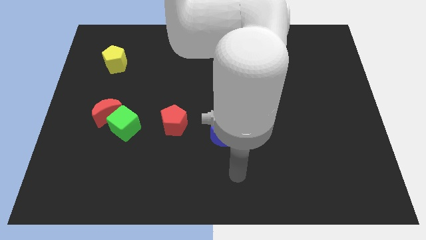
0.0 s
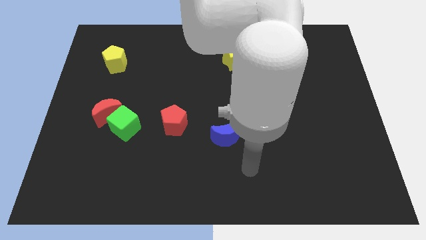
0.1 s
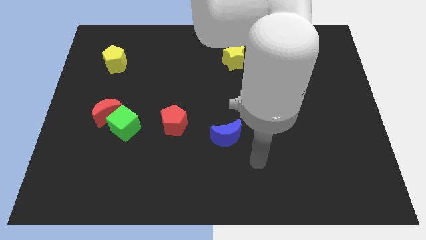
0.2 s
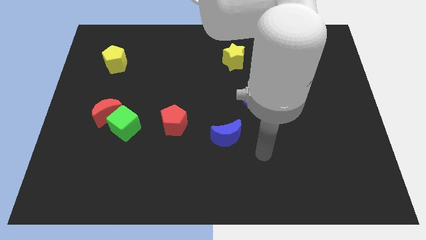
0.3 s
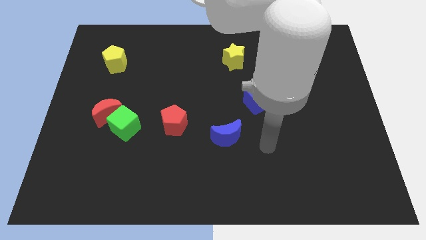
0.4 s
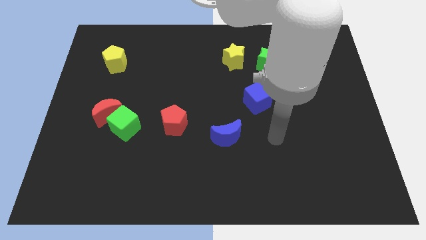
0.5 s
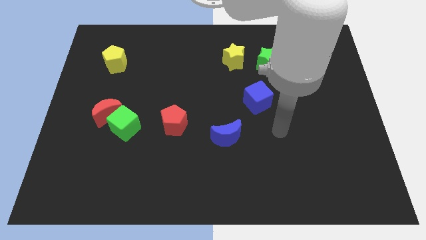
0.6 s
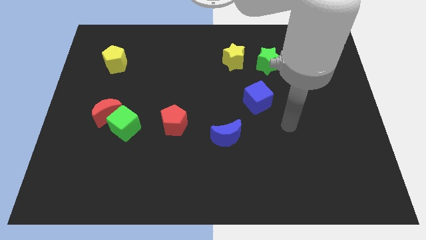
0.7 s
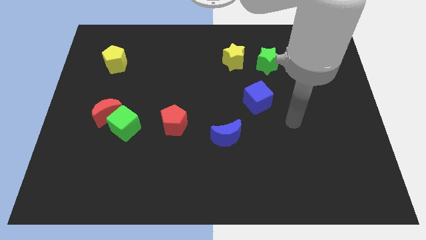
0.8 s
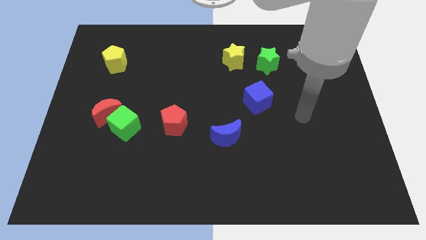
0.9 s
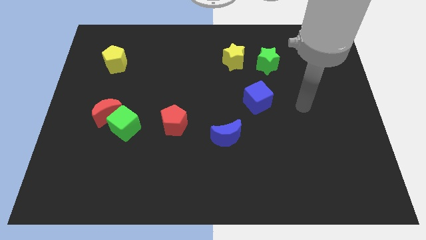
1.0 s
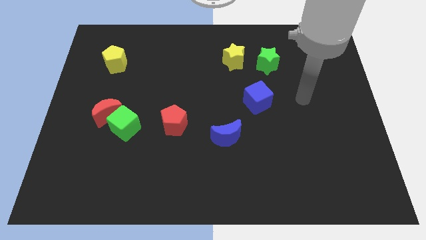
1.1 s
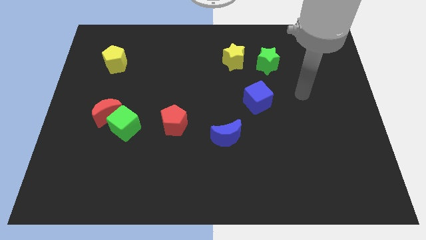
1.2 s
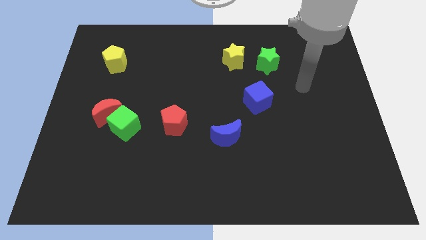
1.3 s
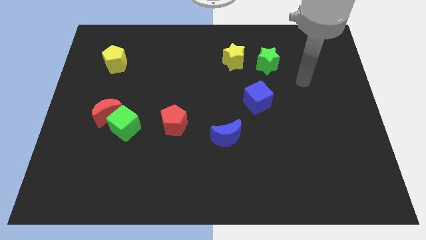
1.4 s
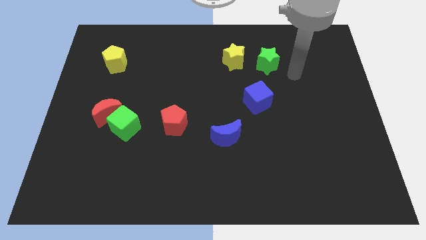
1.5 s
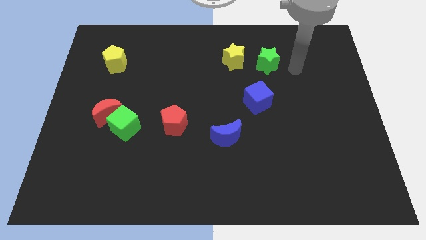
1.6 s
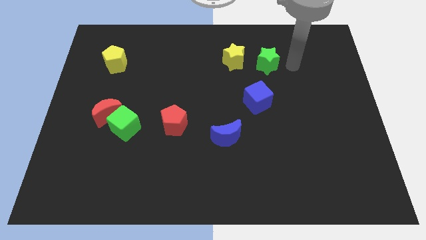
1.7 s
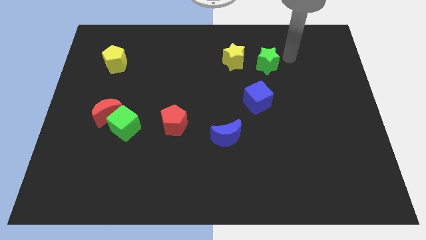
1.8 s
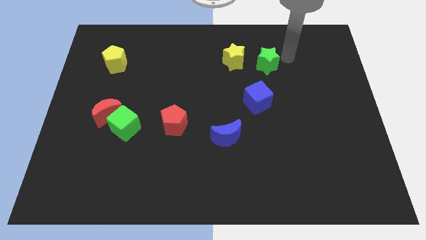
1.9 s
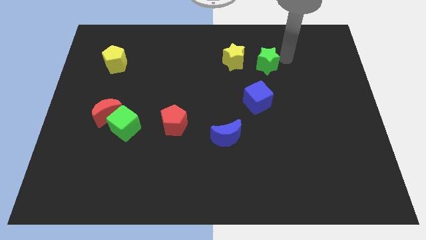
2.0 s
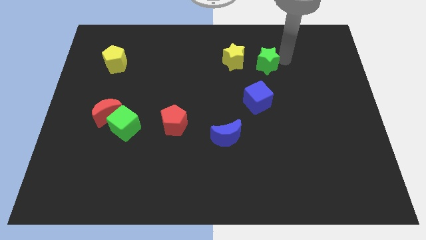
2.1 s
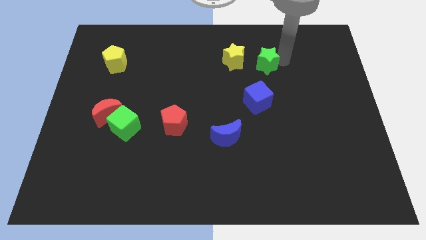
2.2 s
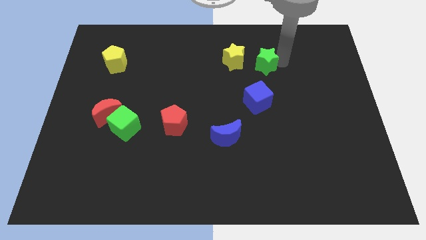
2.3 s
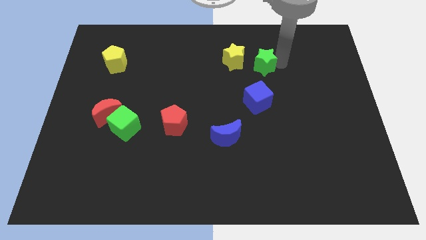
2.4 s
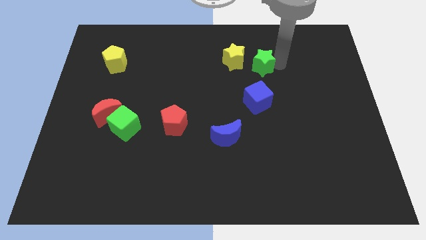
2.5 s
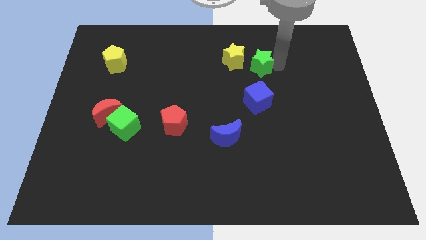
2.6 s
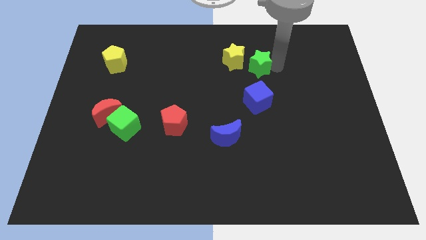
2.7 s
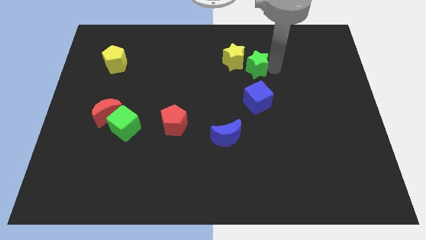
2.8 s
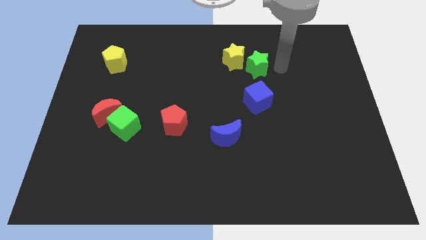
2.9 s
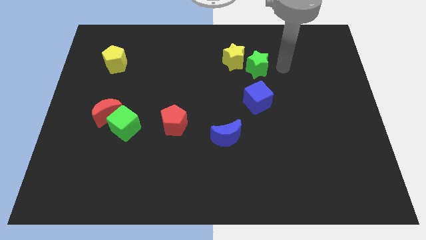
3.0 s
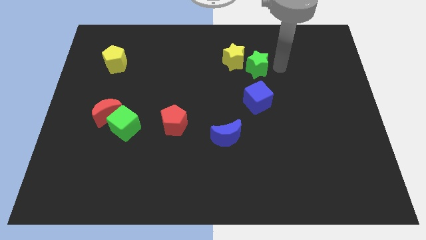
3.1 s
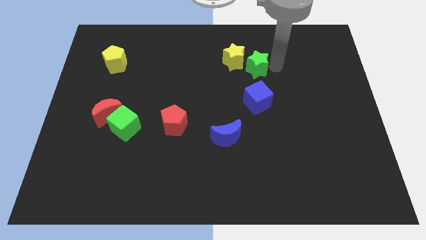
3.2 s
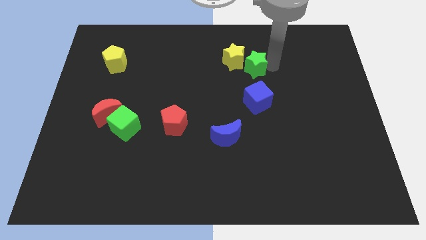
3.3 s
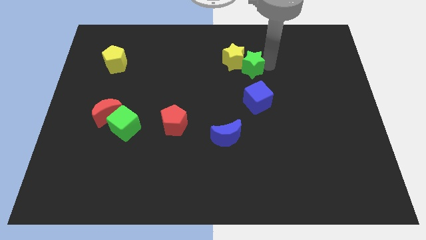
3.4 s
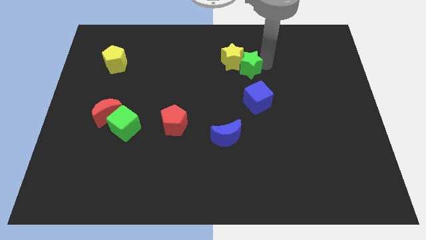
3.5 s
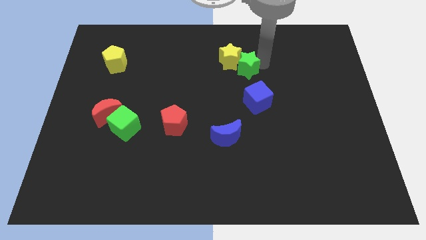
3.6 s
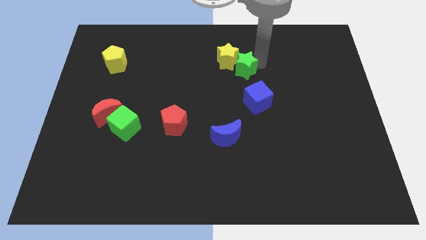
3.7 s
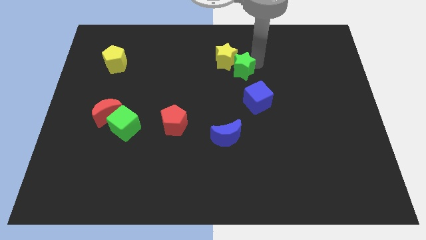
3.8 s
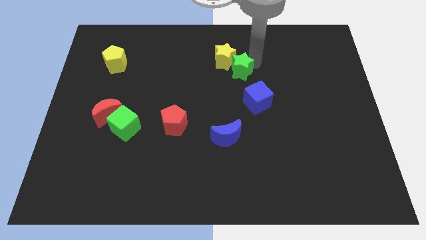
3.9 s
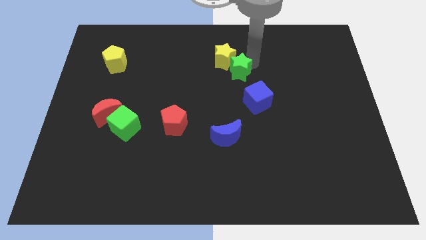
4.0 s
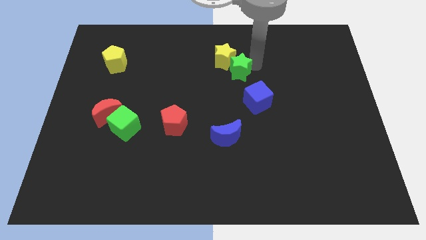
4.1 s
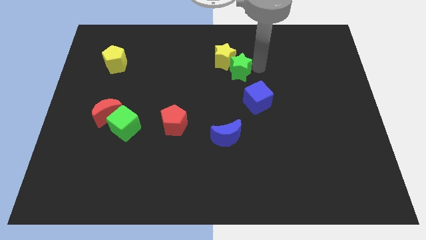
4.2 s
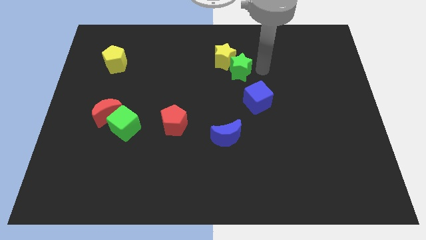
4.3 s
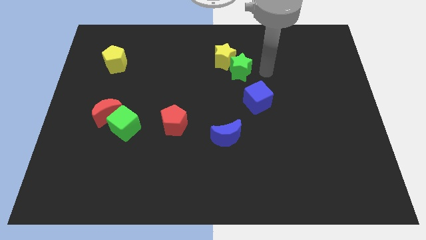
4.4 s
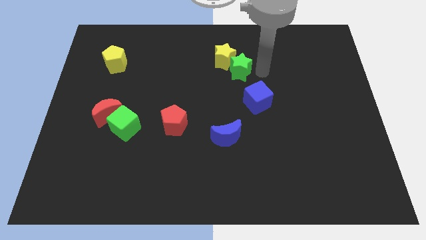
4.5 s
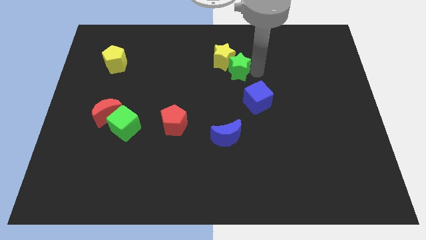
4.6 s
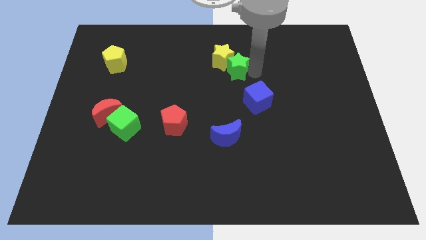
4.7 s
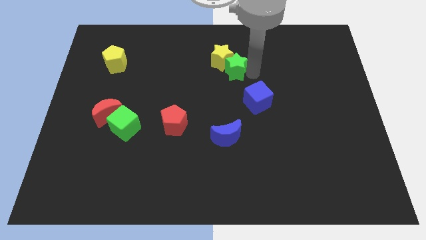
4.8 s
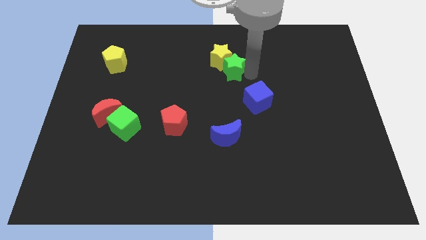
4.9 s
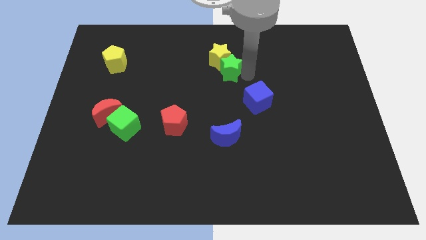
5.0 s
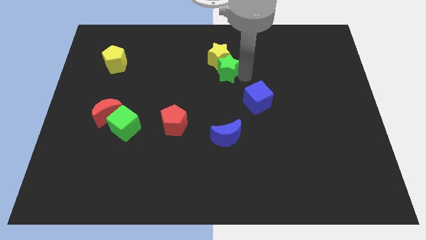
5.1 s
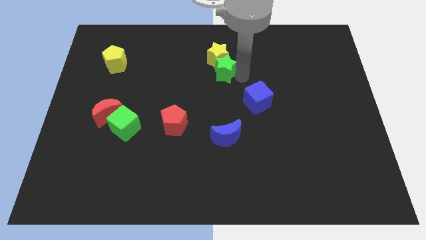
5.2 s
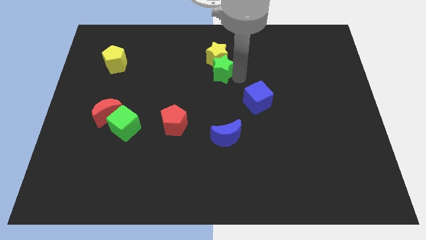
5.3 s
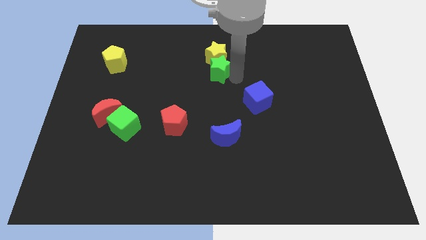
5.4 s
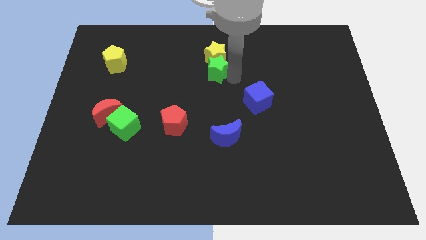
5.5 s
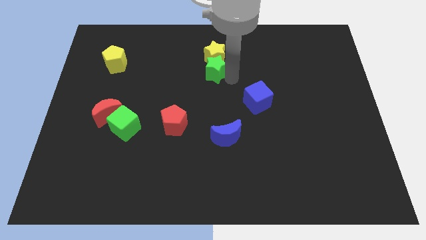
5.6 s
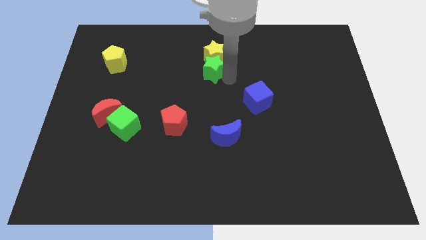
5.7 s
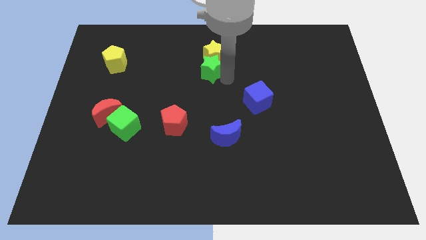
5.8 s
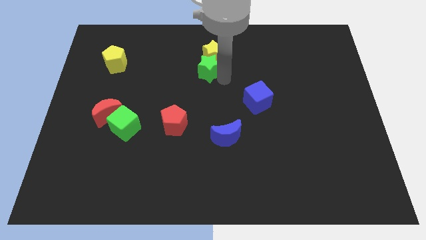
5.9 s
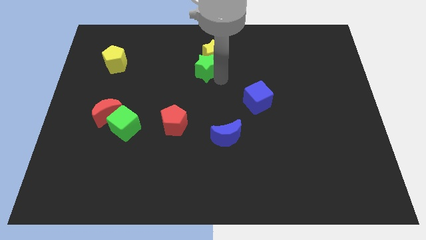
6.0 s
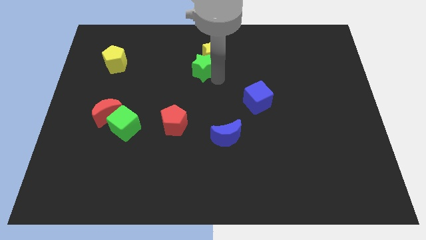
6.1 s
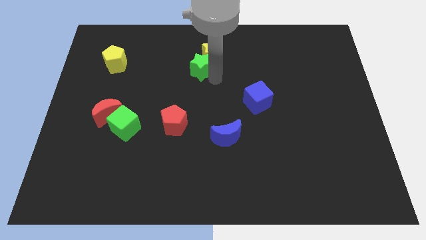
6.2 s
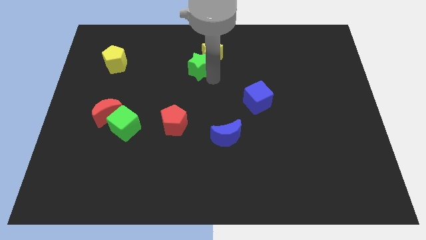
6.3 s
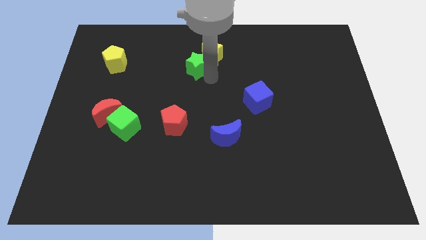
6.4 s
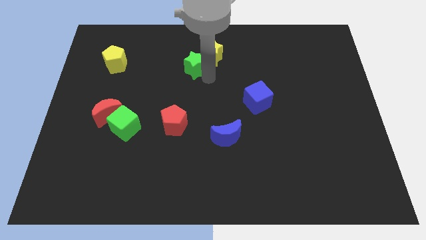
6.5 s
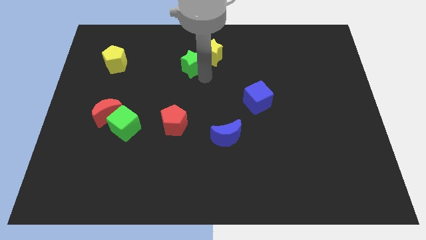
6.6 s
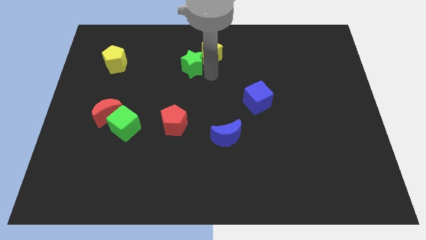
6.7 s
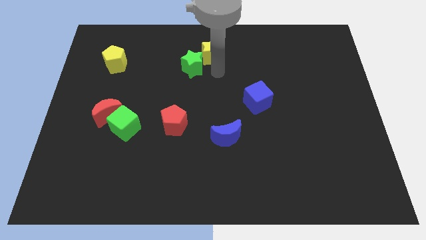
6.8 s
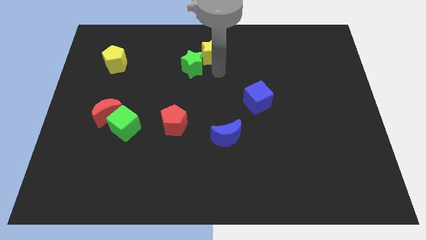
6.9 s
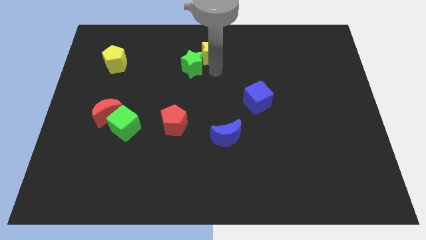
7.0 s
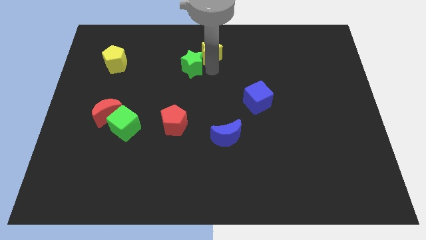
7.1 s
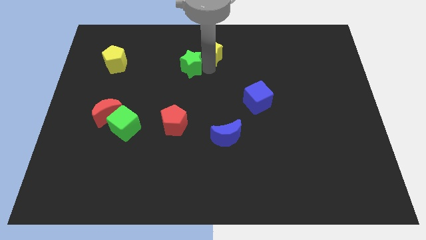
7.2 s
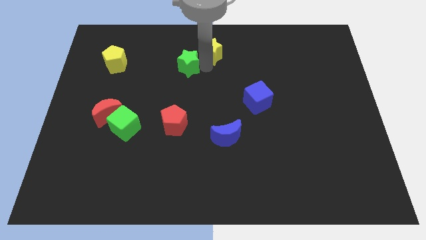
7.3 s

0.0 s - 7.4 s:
slide the green star to the left

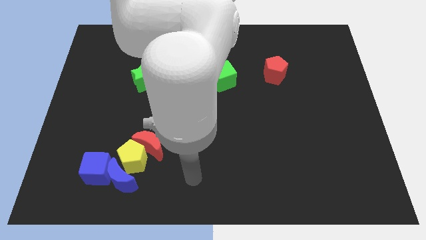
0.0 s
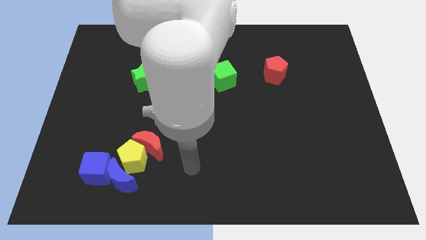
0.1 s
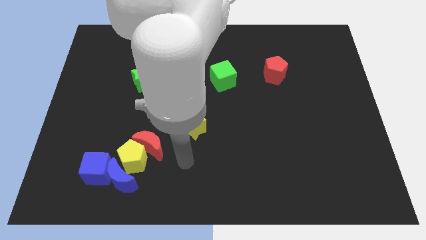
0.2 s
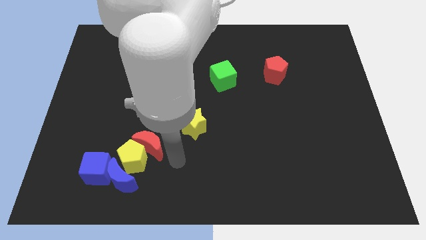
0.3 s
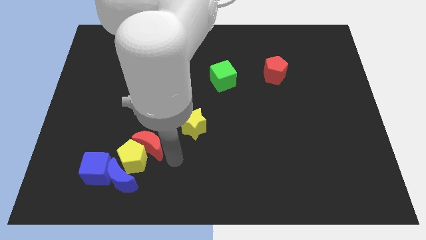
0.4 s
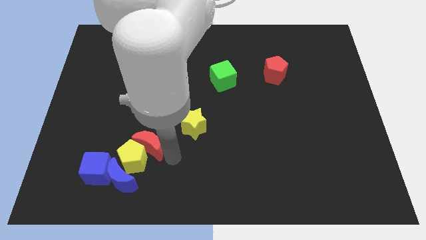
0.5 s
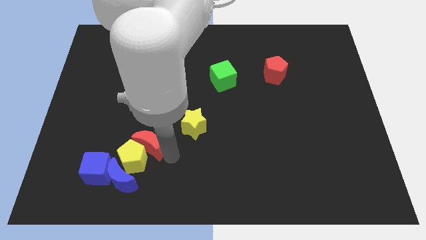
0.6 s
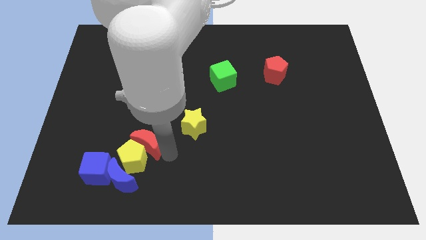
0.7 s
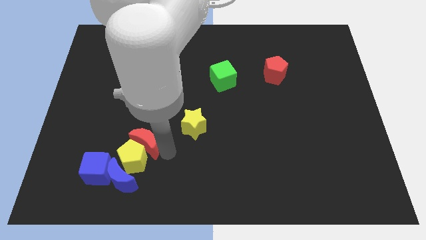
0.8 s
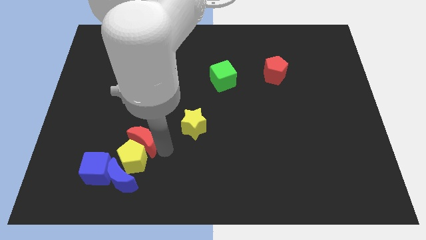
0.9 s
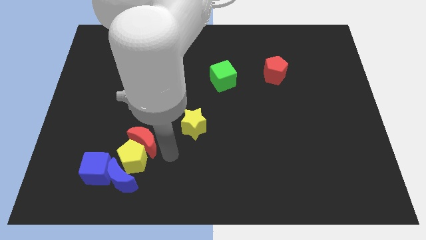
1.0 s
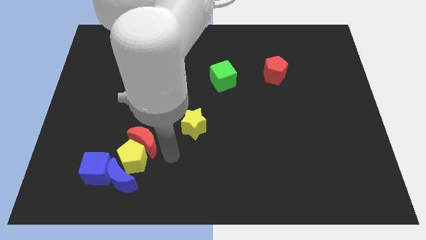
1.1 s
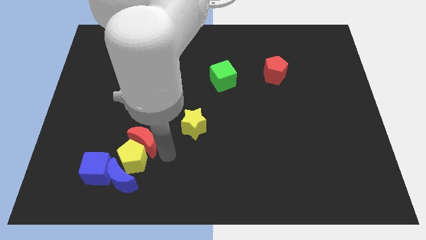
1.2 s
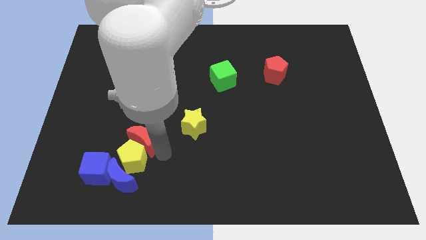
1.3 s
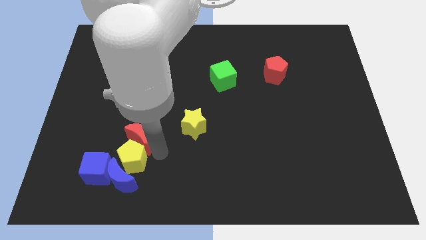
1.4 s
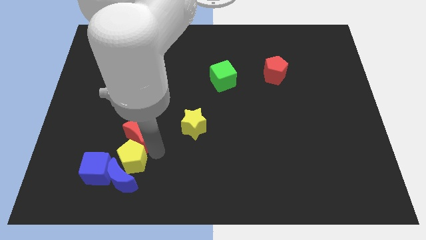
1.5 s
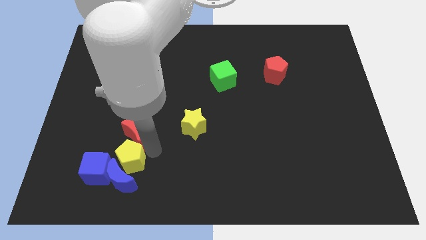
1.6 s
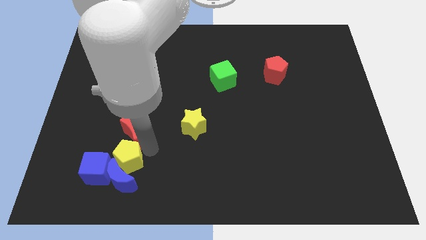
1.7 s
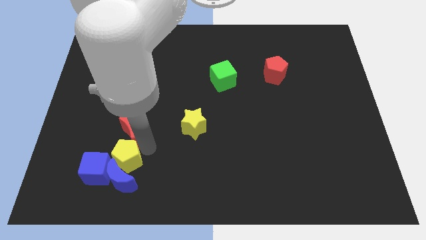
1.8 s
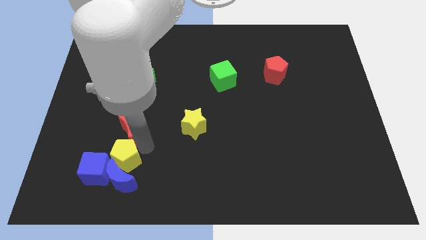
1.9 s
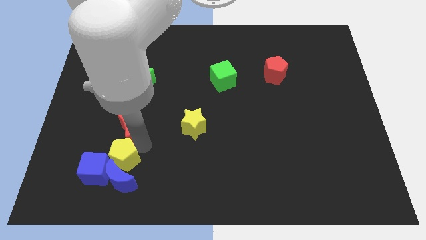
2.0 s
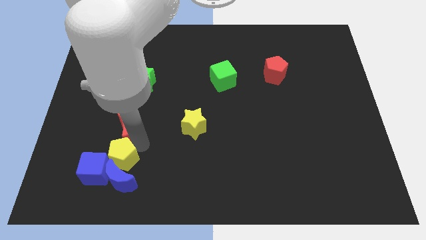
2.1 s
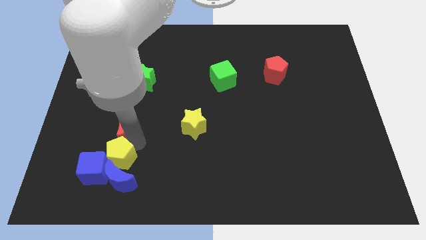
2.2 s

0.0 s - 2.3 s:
slide the red moon a bit up and left
